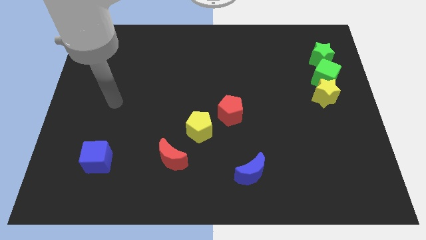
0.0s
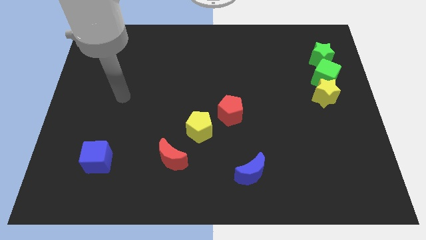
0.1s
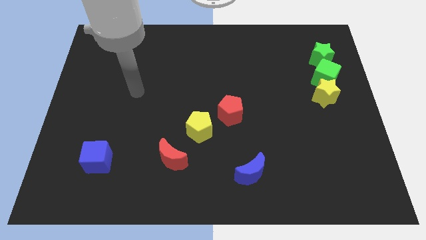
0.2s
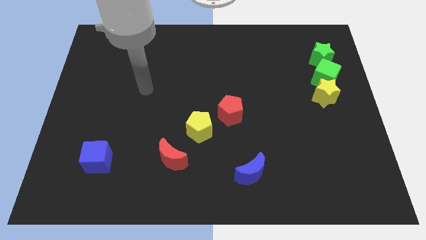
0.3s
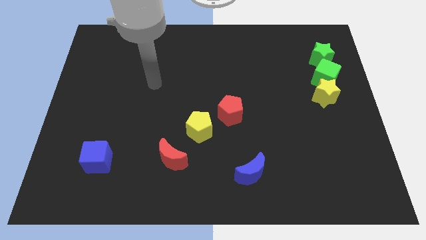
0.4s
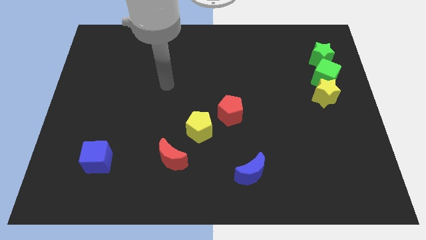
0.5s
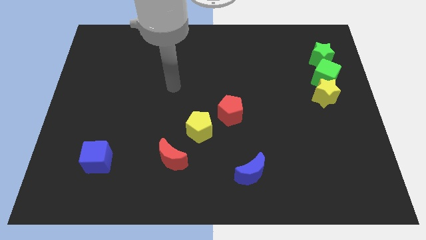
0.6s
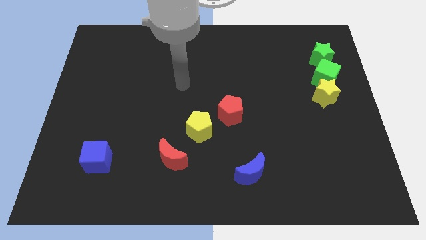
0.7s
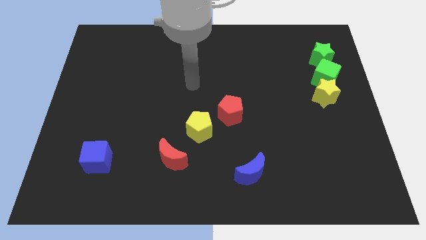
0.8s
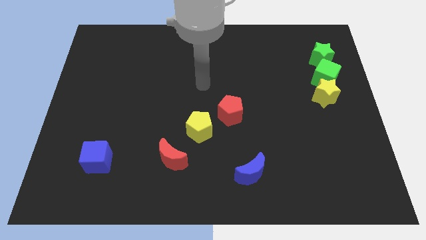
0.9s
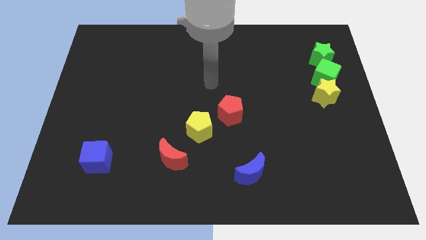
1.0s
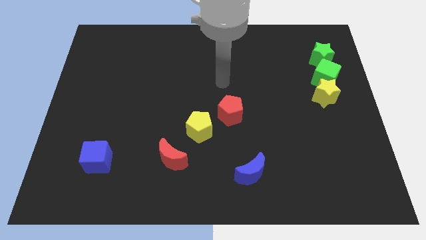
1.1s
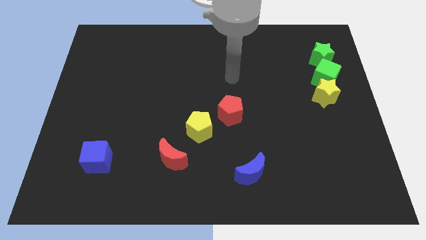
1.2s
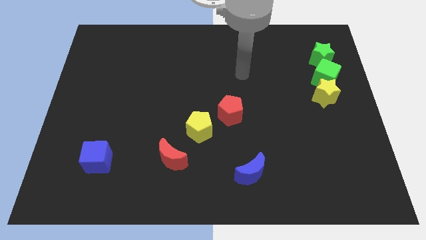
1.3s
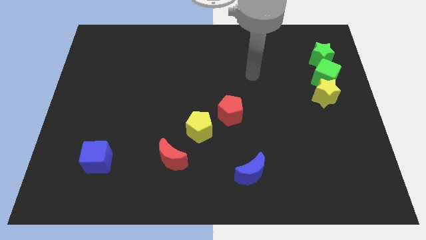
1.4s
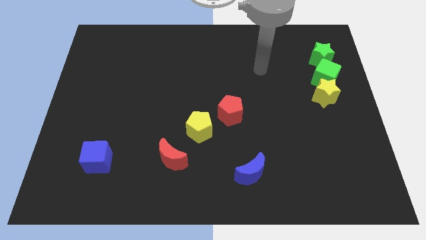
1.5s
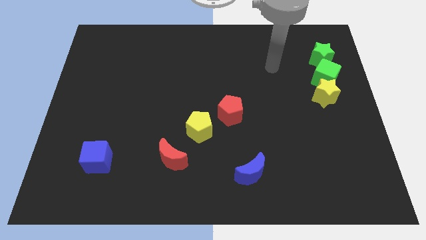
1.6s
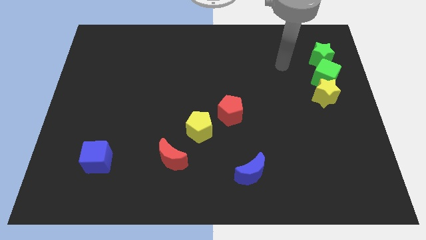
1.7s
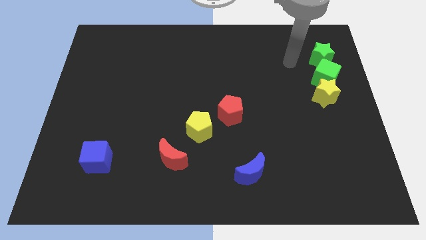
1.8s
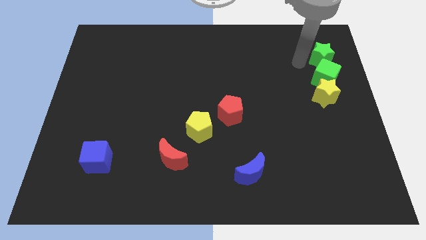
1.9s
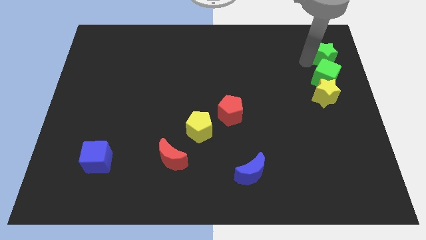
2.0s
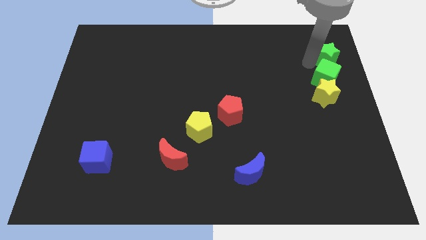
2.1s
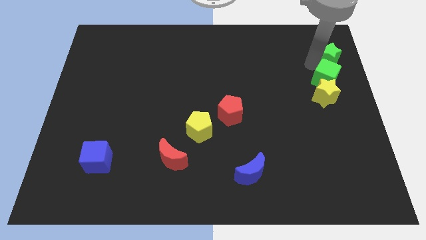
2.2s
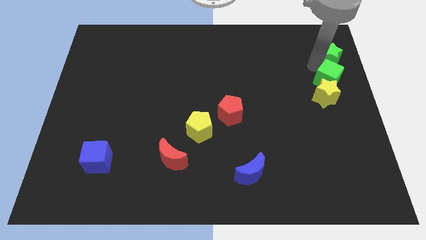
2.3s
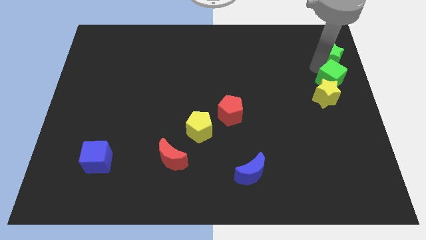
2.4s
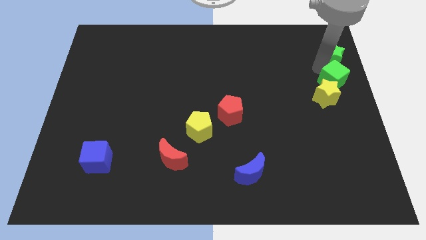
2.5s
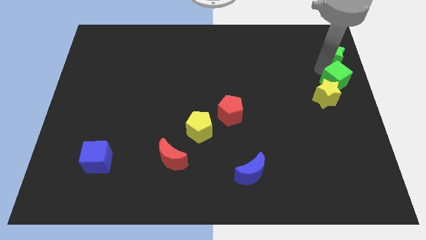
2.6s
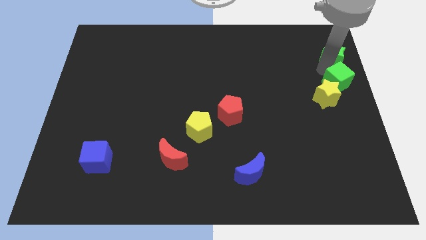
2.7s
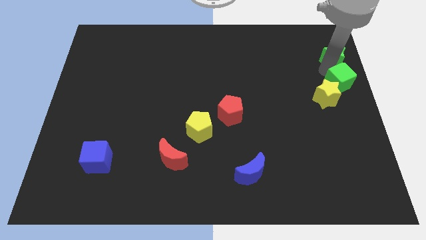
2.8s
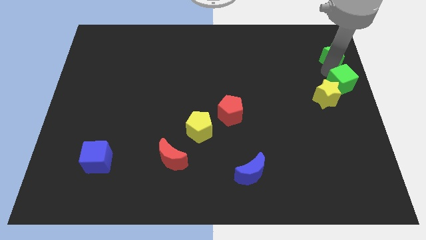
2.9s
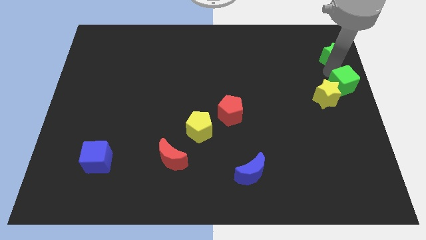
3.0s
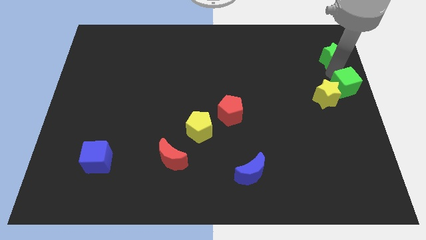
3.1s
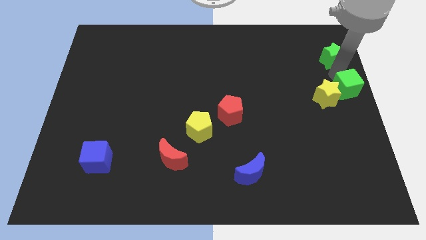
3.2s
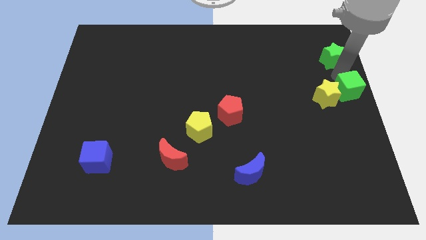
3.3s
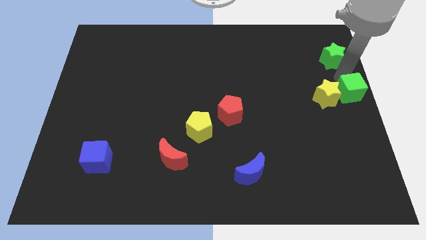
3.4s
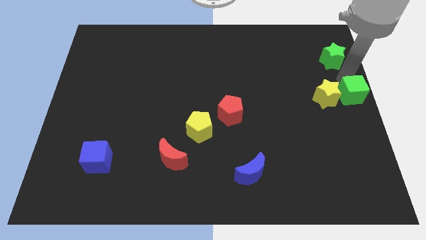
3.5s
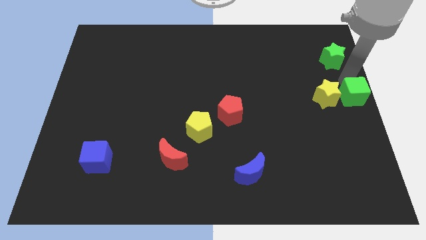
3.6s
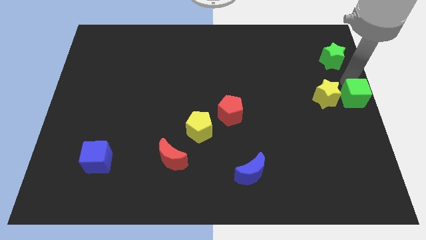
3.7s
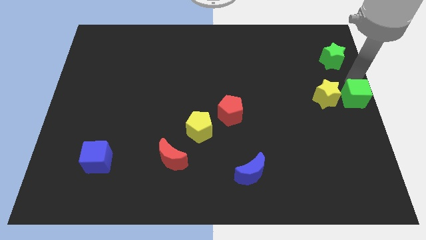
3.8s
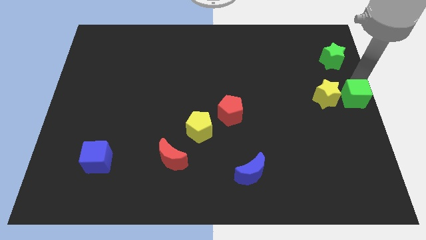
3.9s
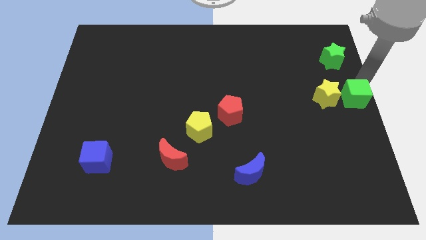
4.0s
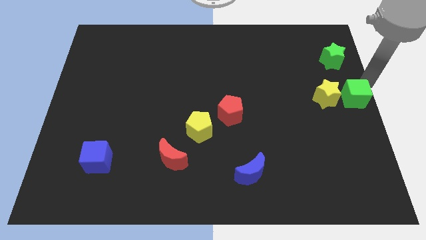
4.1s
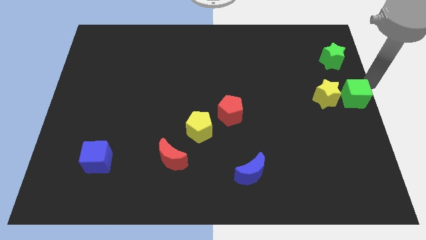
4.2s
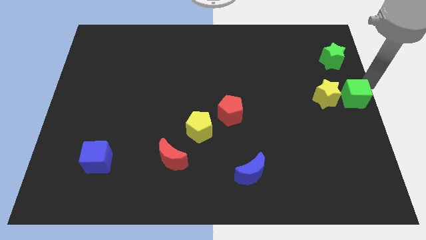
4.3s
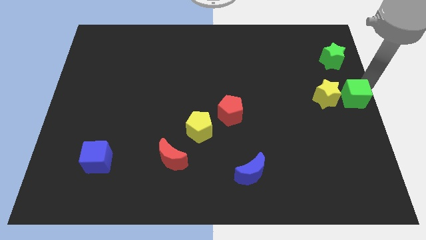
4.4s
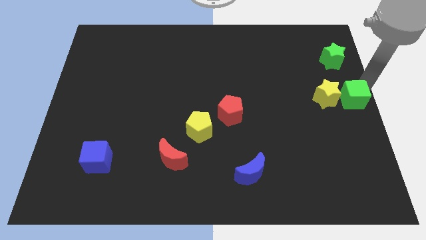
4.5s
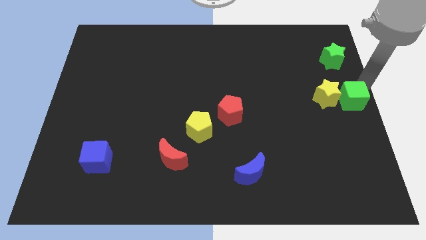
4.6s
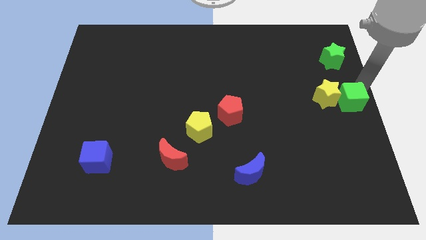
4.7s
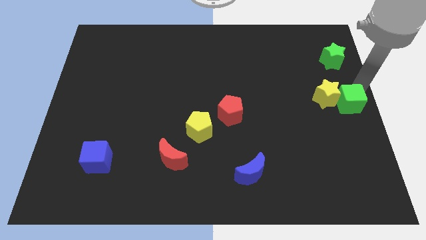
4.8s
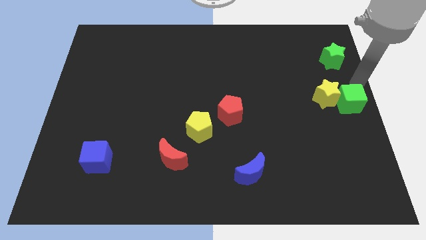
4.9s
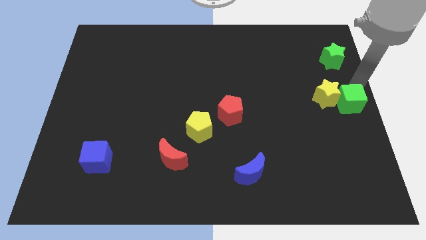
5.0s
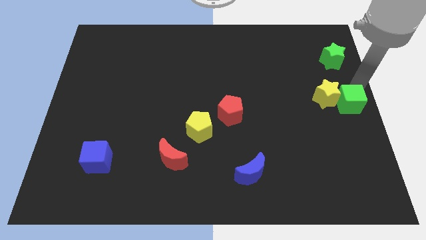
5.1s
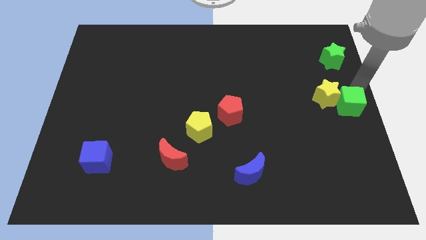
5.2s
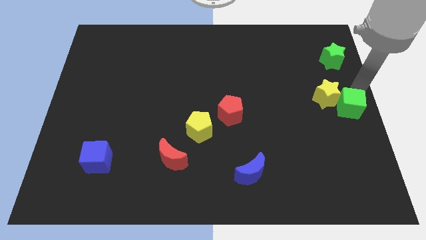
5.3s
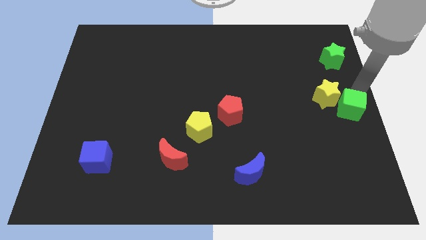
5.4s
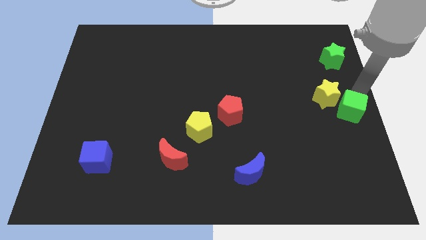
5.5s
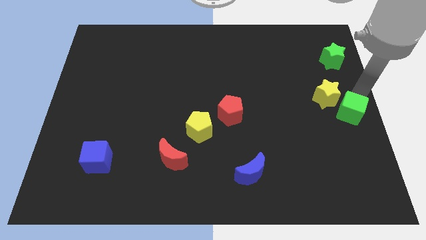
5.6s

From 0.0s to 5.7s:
put the green cube to the bottom side of the yellow star

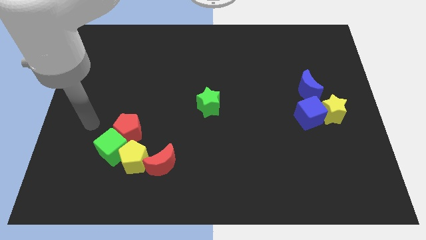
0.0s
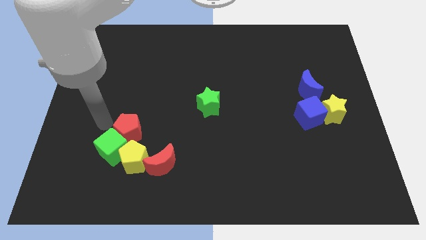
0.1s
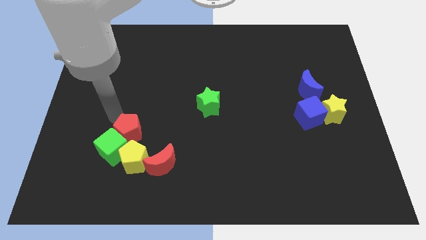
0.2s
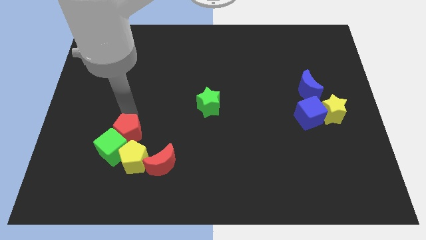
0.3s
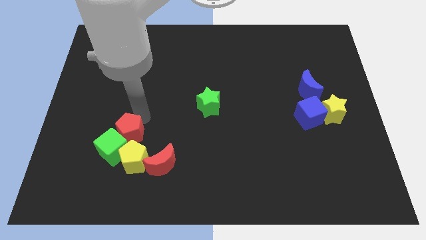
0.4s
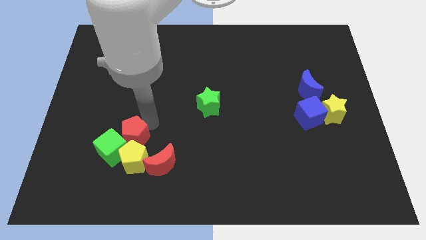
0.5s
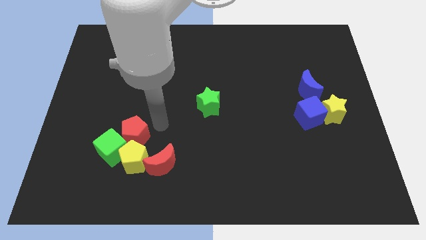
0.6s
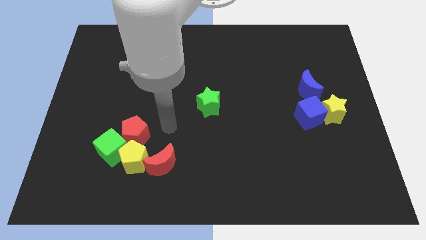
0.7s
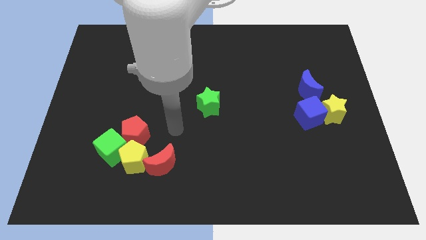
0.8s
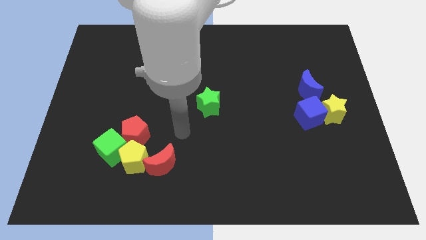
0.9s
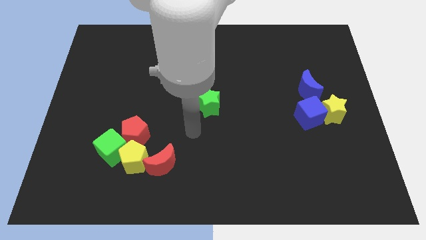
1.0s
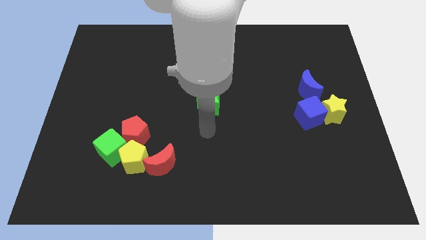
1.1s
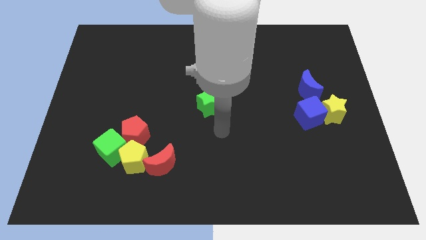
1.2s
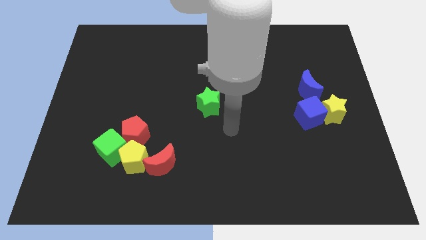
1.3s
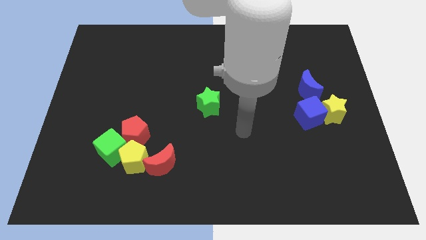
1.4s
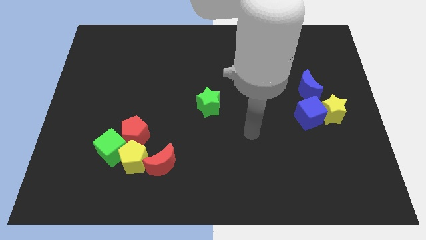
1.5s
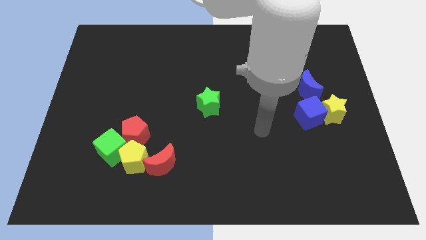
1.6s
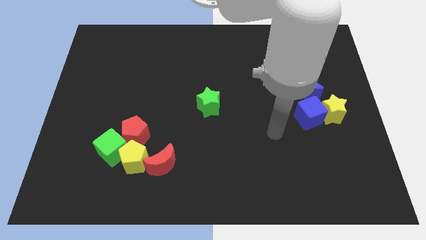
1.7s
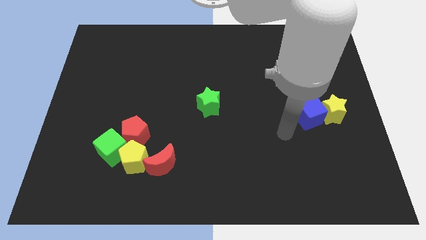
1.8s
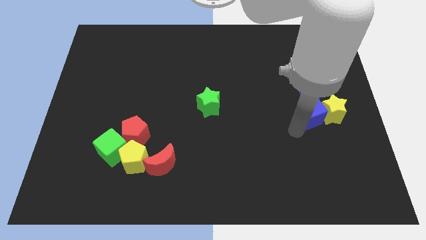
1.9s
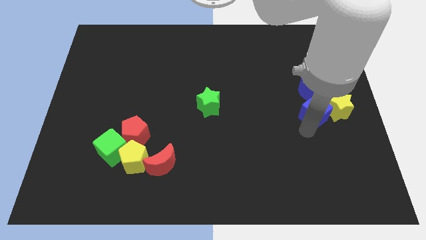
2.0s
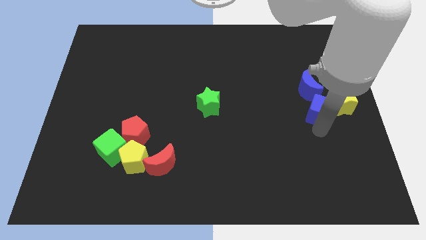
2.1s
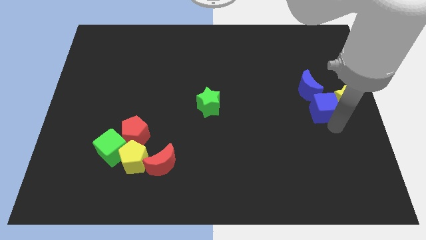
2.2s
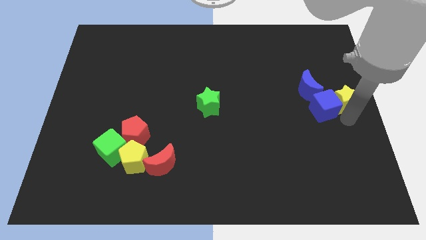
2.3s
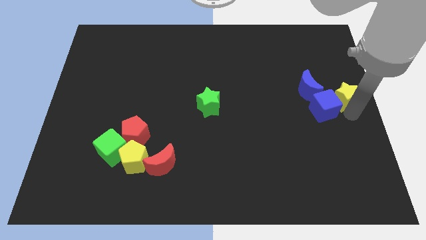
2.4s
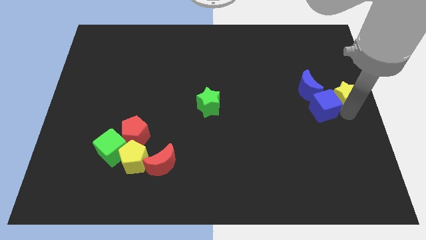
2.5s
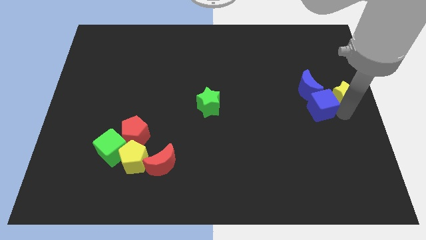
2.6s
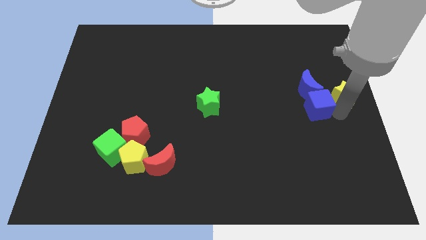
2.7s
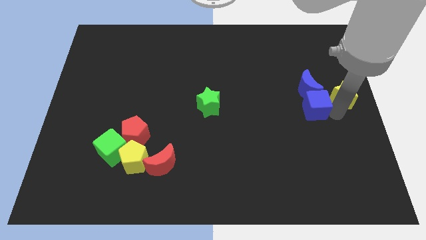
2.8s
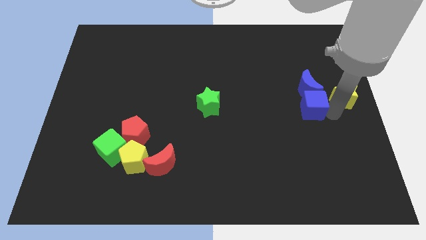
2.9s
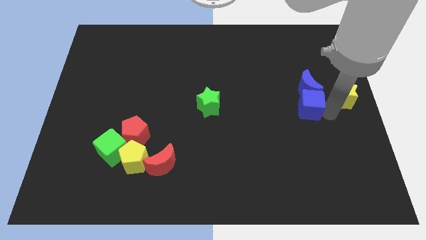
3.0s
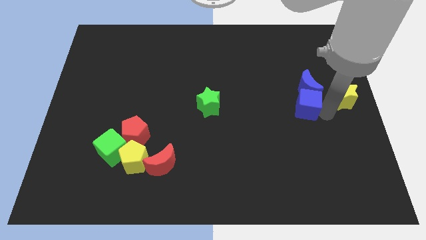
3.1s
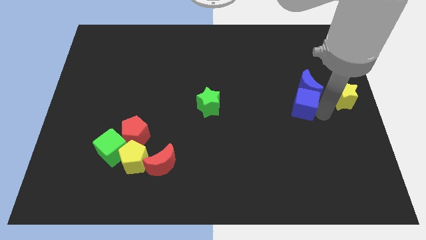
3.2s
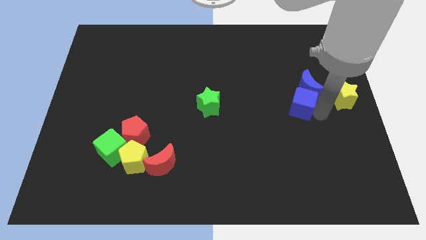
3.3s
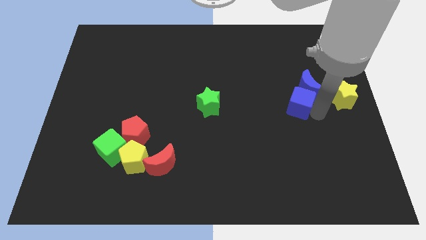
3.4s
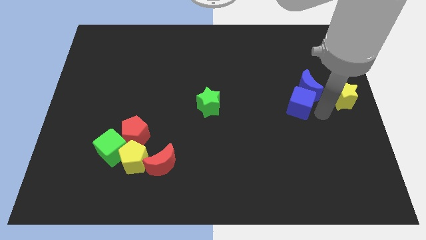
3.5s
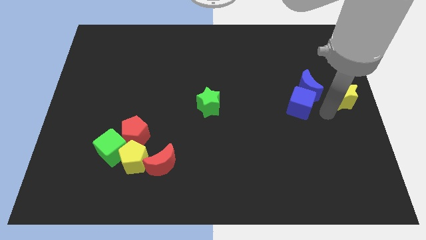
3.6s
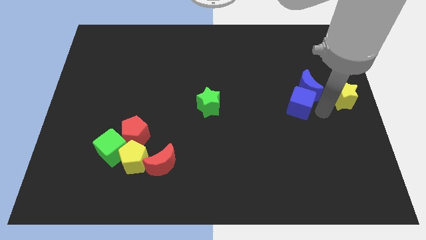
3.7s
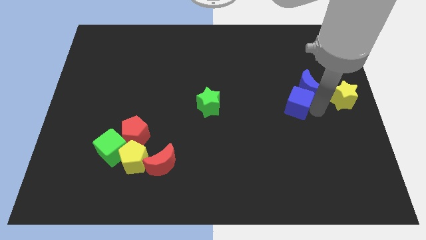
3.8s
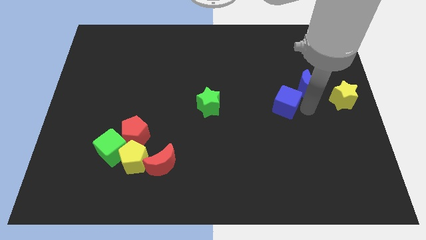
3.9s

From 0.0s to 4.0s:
move the blue cube just left of the blue moon
